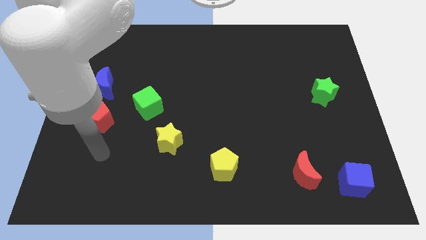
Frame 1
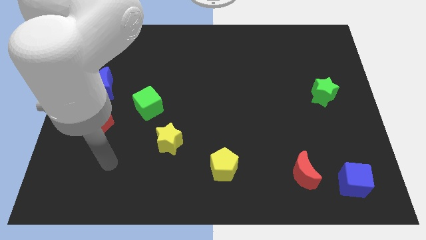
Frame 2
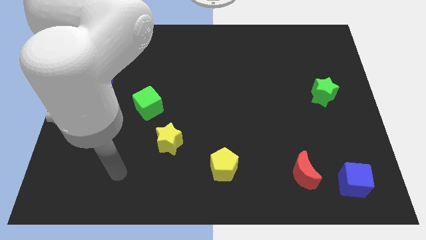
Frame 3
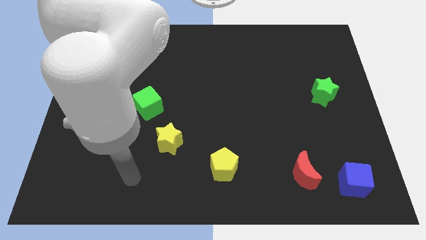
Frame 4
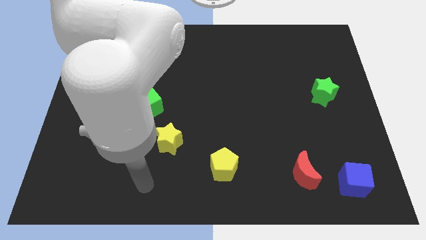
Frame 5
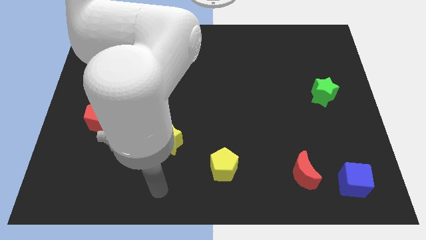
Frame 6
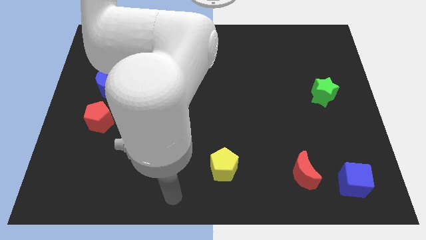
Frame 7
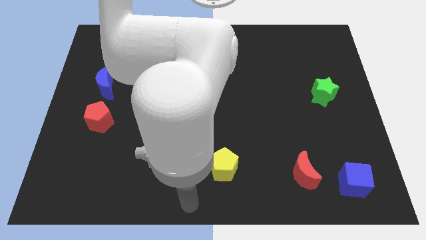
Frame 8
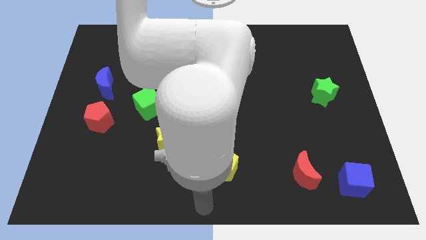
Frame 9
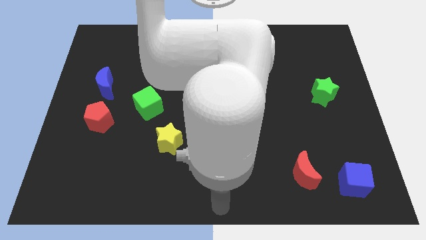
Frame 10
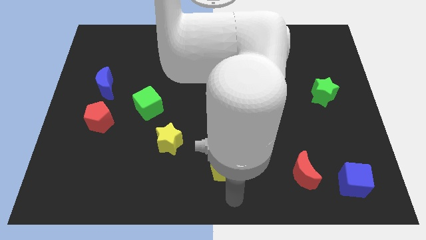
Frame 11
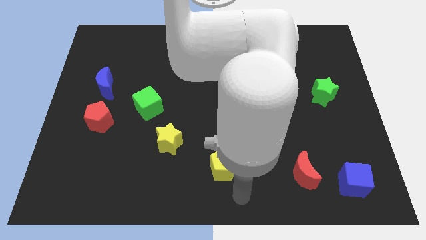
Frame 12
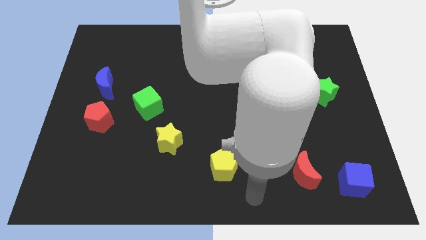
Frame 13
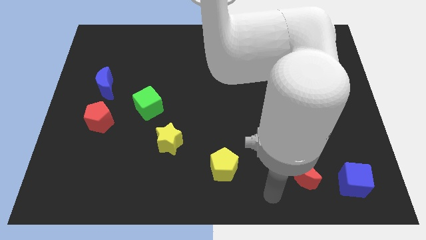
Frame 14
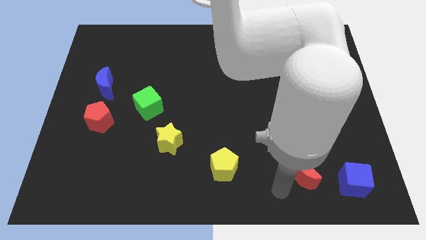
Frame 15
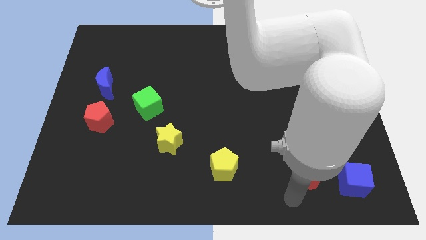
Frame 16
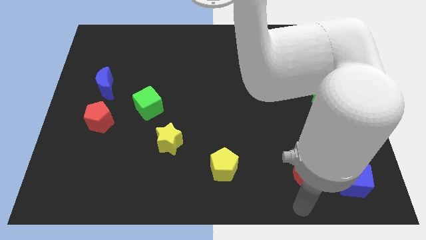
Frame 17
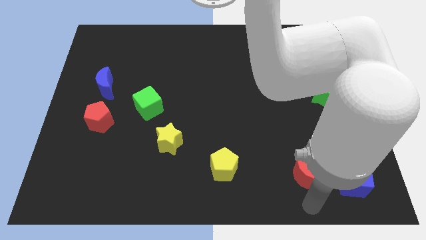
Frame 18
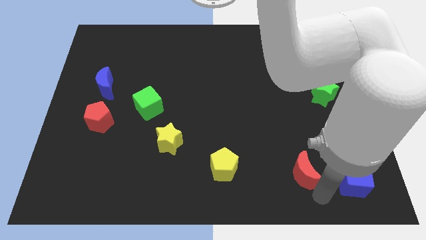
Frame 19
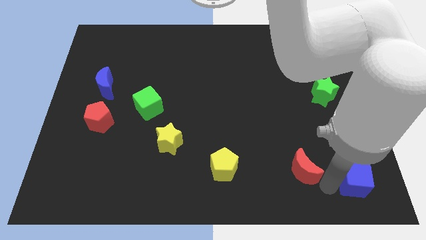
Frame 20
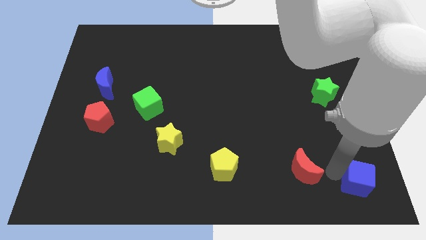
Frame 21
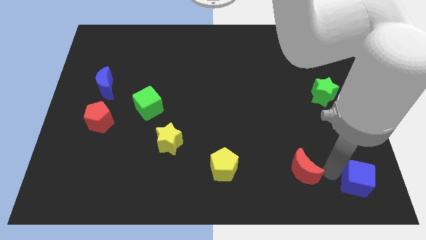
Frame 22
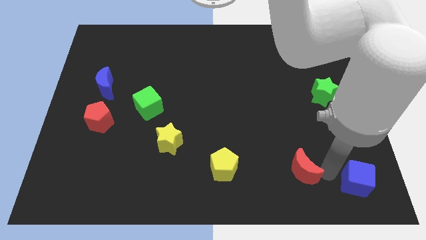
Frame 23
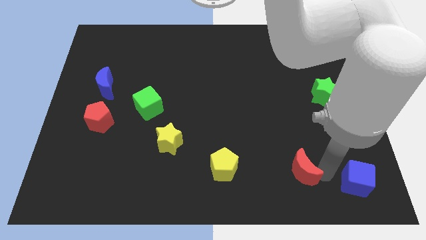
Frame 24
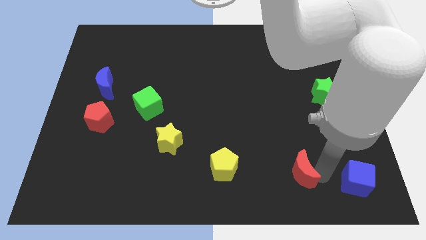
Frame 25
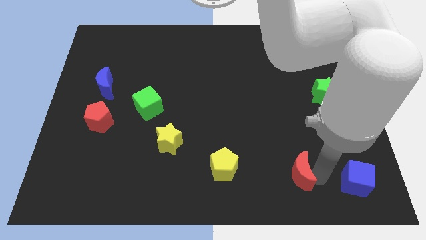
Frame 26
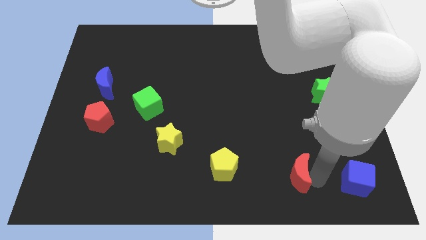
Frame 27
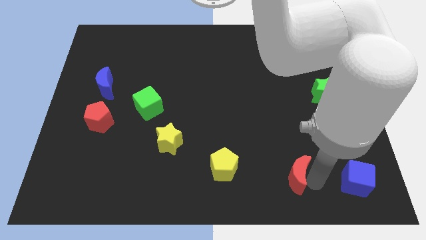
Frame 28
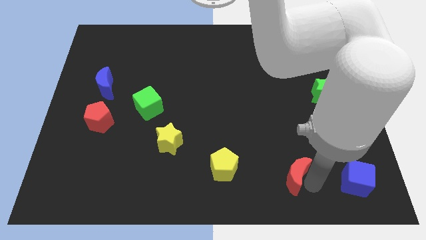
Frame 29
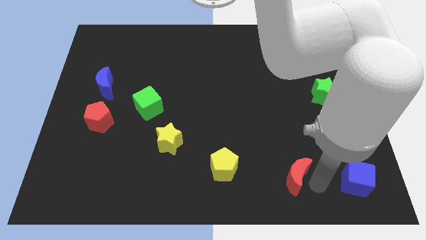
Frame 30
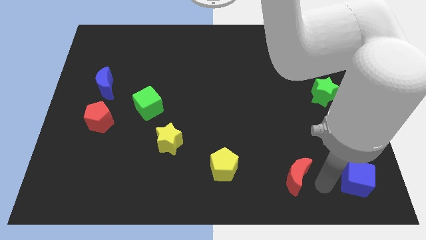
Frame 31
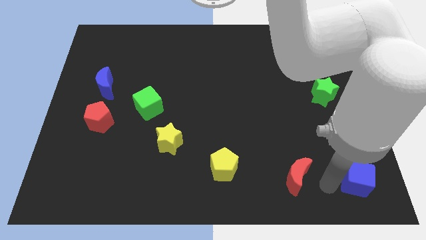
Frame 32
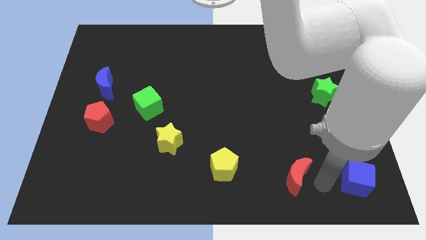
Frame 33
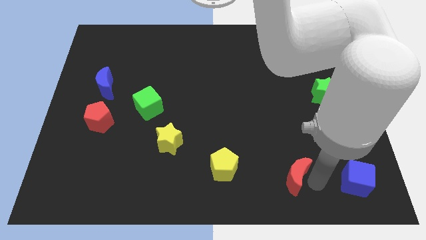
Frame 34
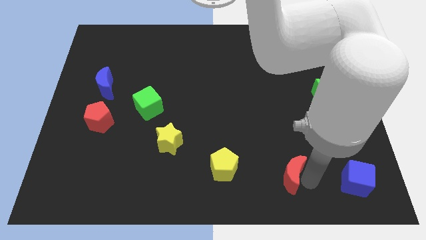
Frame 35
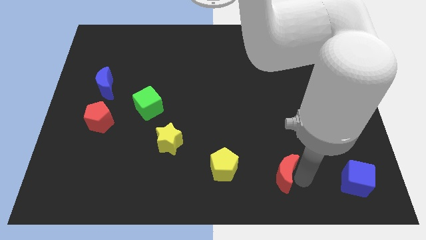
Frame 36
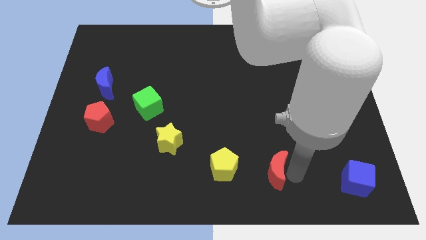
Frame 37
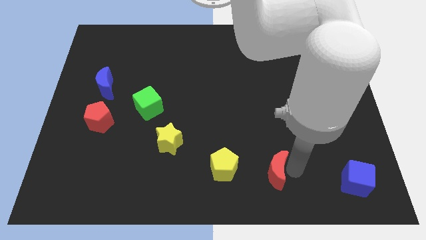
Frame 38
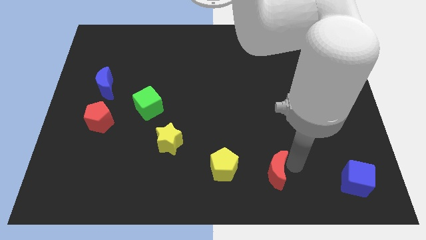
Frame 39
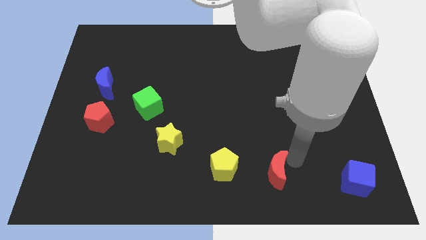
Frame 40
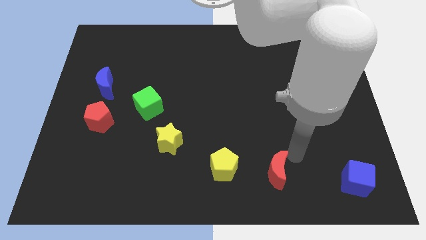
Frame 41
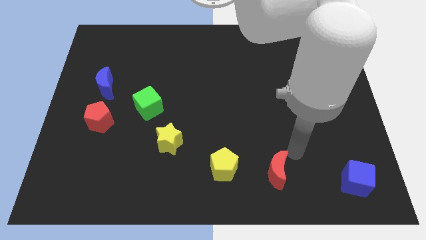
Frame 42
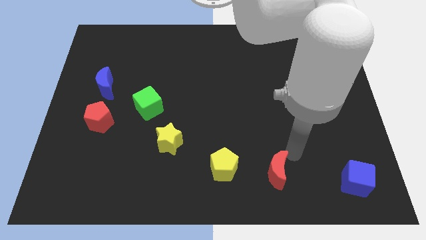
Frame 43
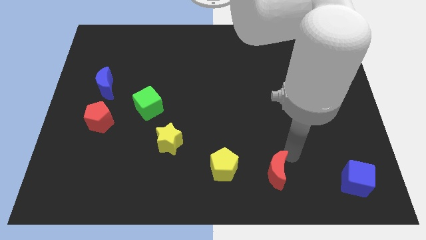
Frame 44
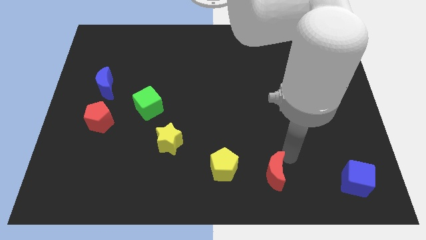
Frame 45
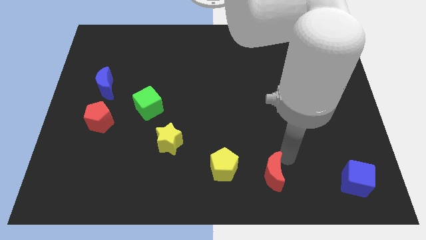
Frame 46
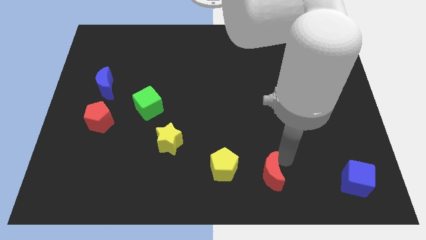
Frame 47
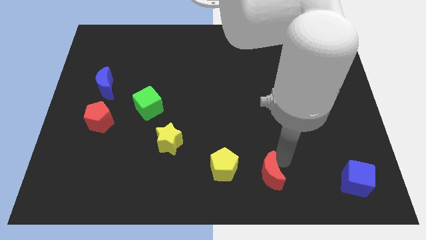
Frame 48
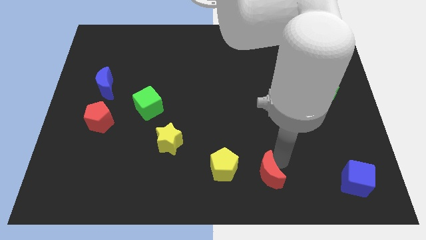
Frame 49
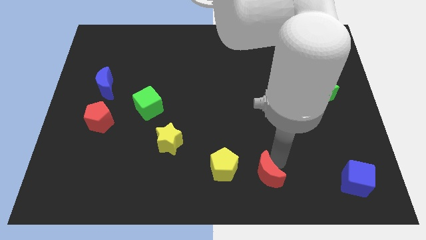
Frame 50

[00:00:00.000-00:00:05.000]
push the red moon to the bottom

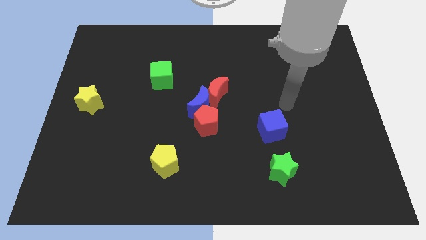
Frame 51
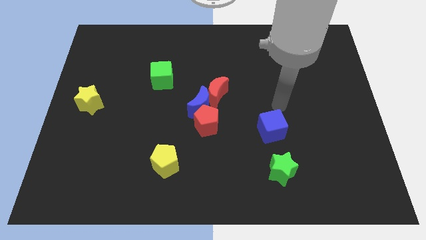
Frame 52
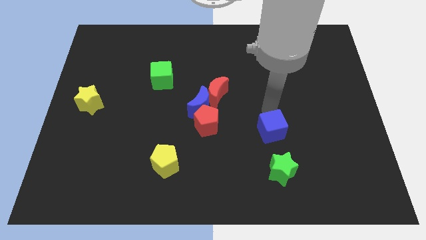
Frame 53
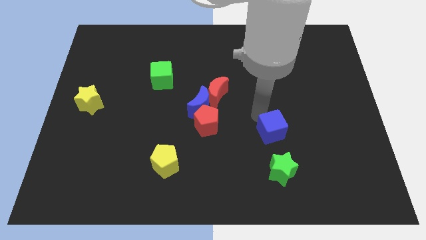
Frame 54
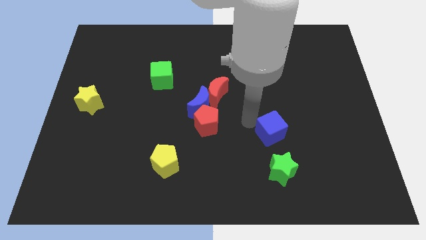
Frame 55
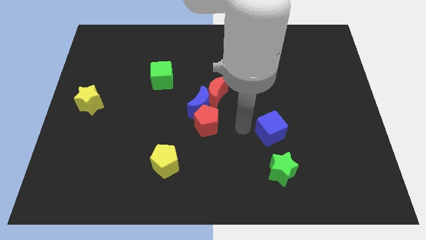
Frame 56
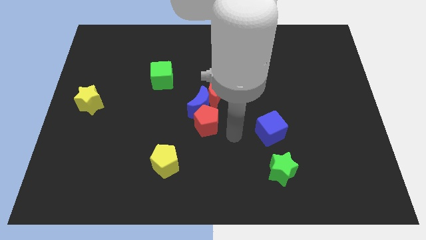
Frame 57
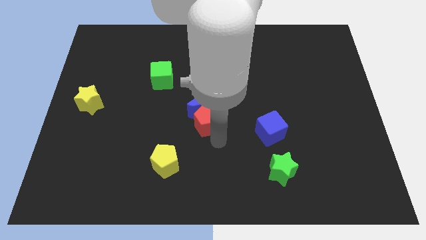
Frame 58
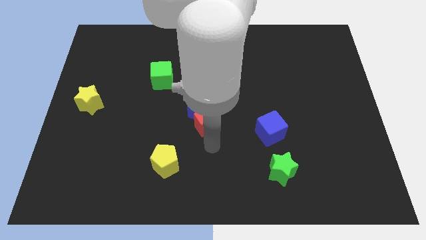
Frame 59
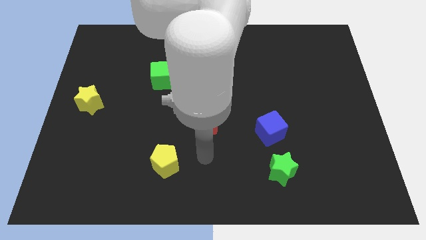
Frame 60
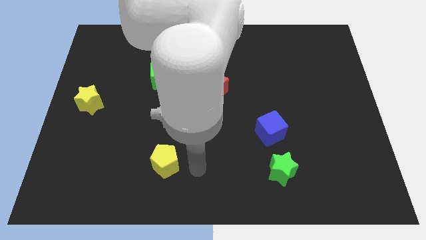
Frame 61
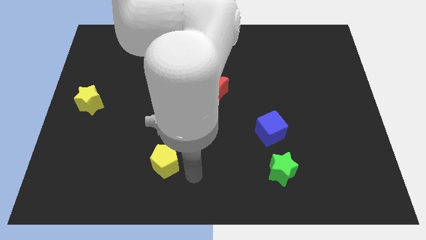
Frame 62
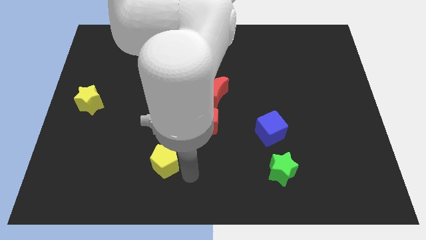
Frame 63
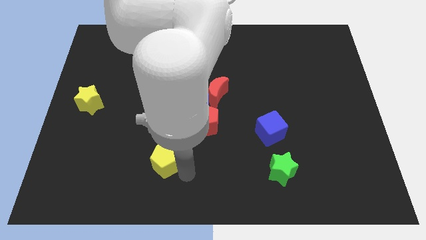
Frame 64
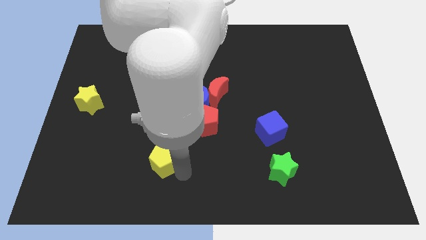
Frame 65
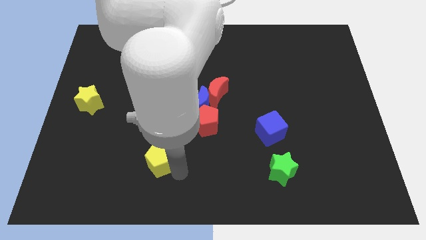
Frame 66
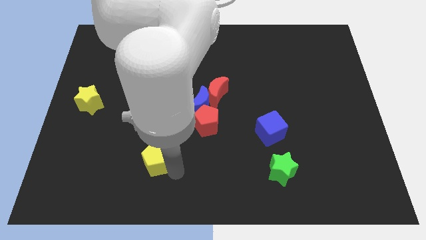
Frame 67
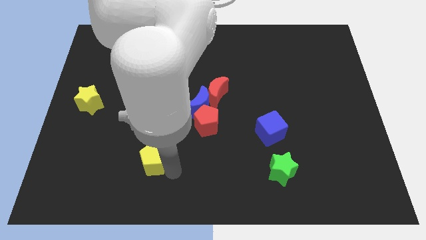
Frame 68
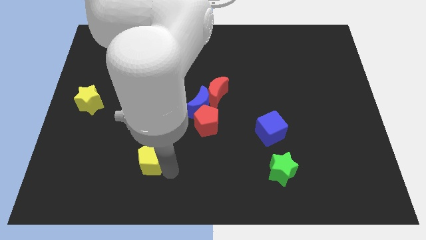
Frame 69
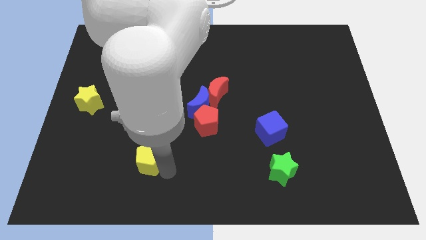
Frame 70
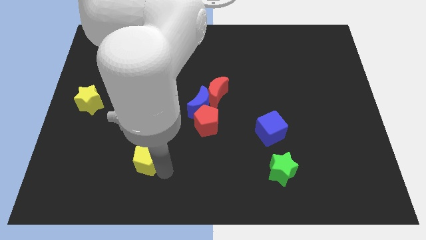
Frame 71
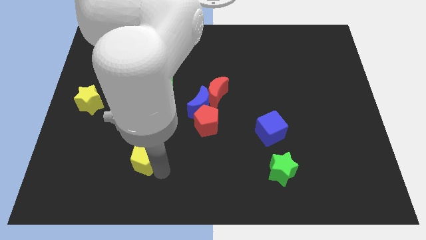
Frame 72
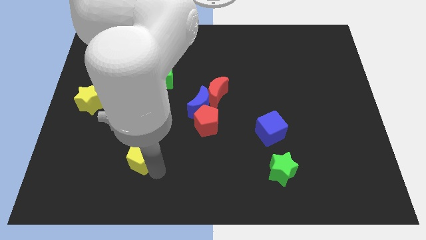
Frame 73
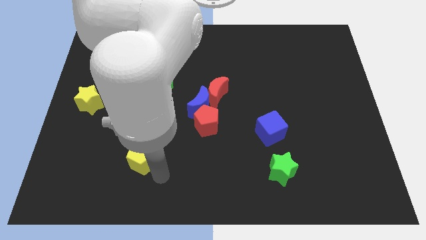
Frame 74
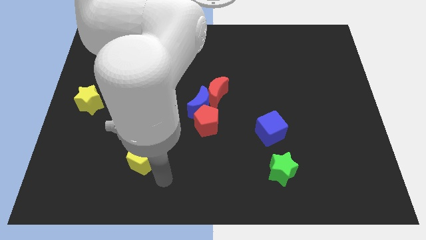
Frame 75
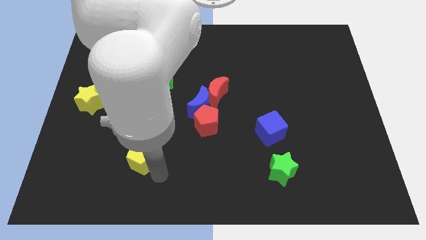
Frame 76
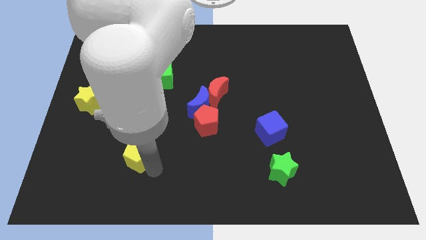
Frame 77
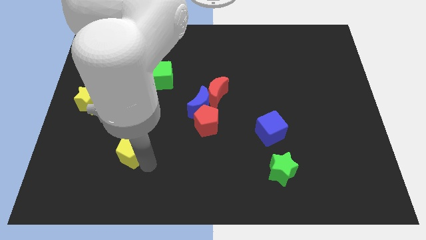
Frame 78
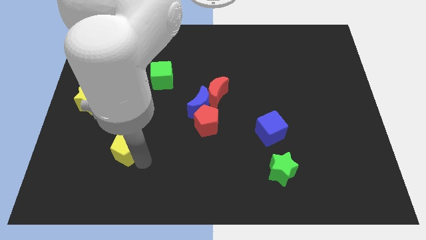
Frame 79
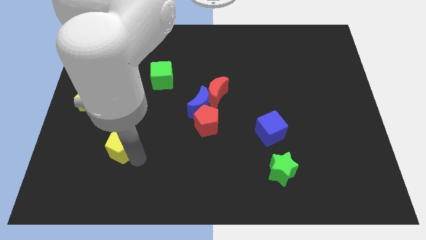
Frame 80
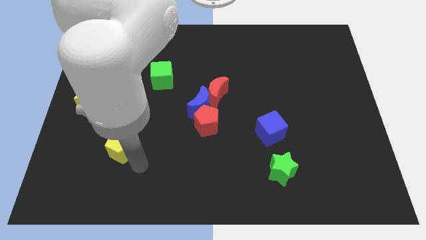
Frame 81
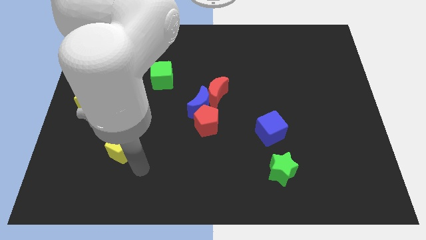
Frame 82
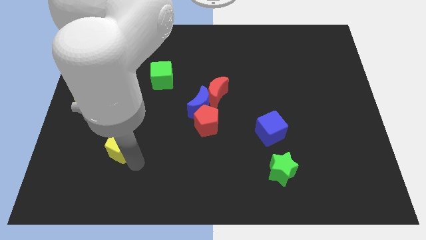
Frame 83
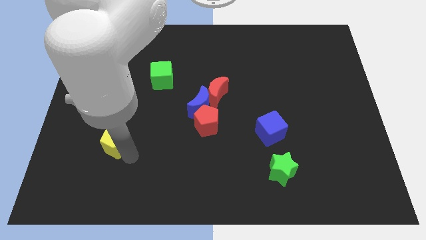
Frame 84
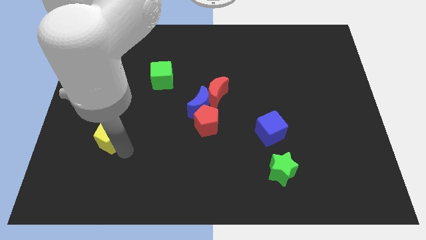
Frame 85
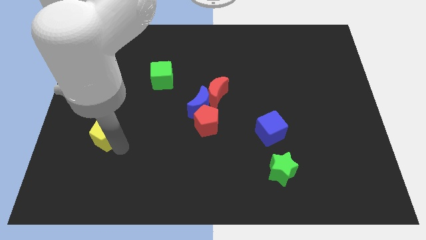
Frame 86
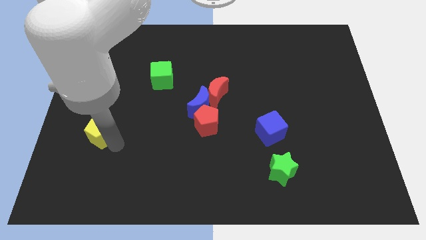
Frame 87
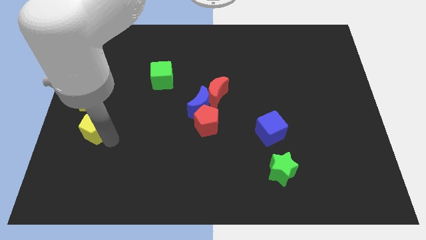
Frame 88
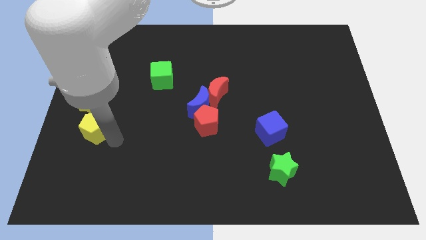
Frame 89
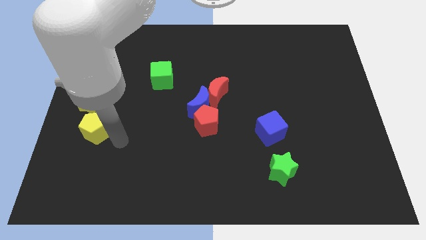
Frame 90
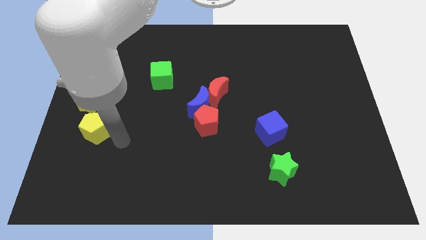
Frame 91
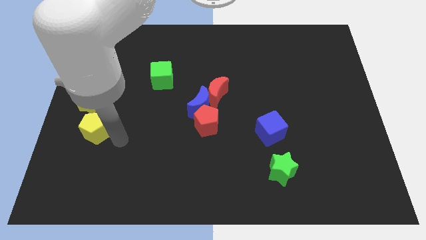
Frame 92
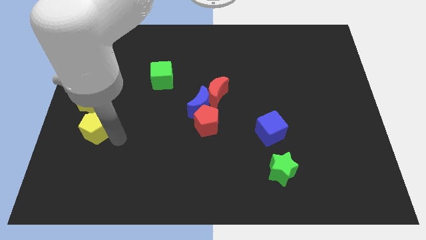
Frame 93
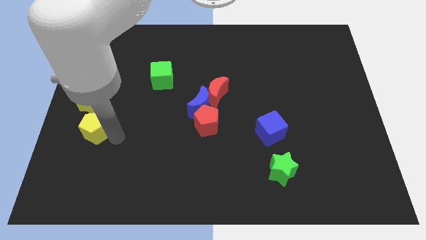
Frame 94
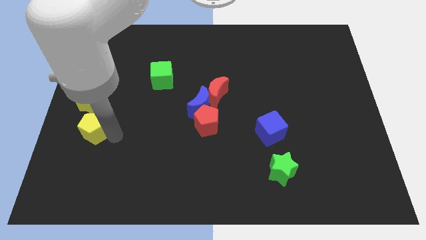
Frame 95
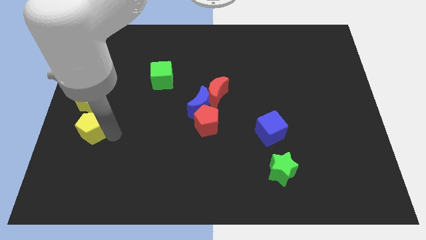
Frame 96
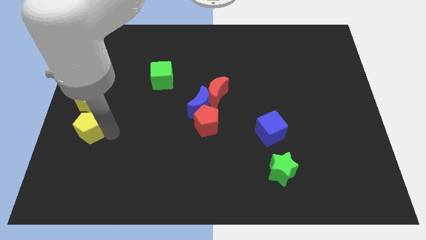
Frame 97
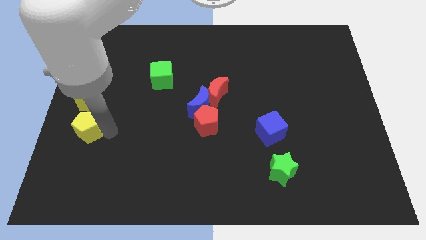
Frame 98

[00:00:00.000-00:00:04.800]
slide the yellow pentagon to the center left
